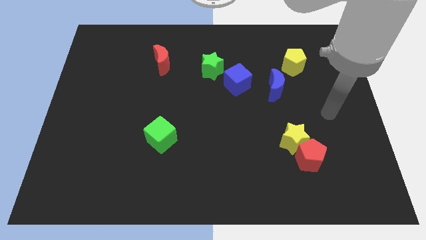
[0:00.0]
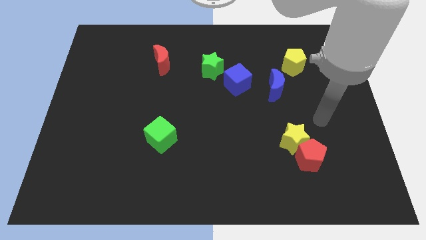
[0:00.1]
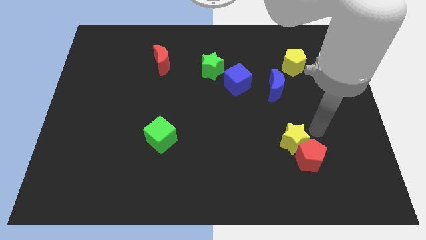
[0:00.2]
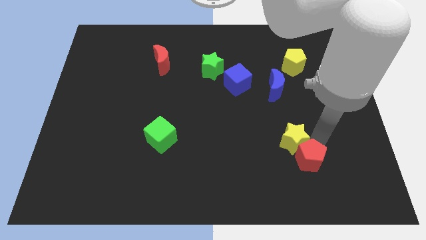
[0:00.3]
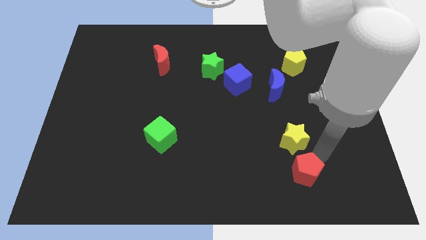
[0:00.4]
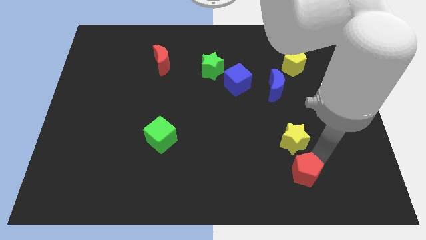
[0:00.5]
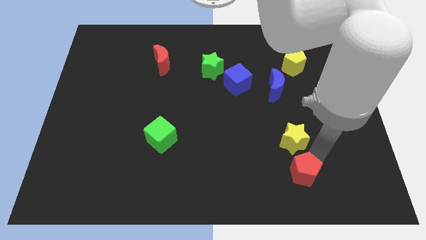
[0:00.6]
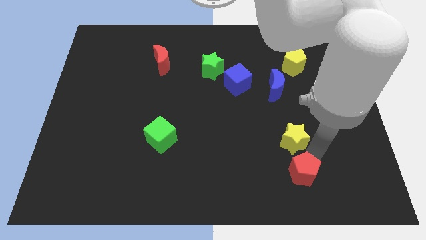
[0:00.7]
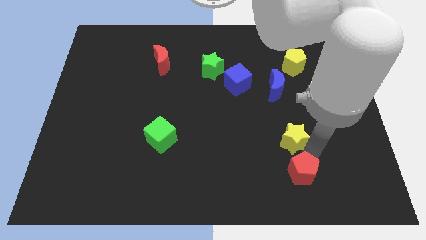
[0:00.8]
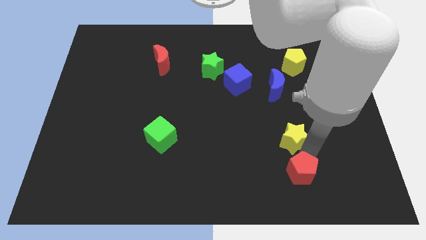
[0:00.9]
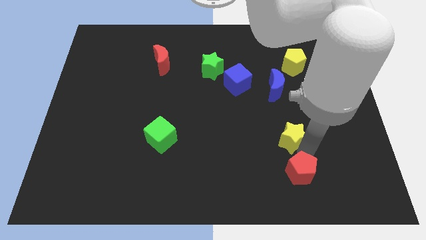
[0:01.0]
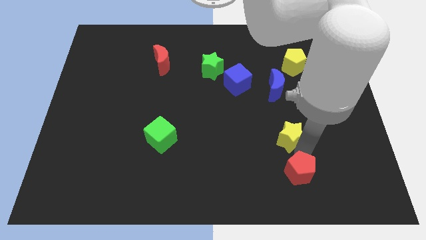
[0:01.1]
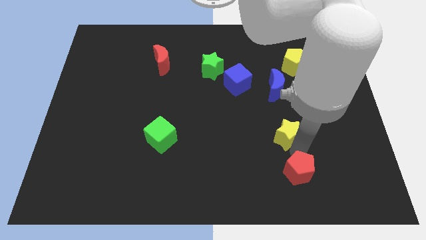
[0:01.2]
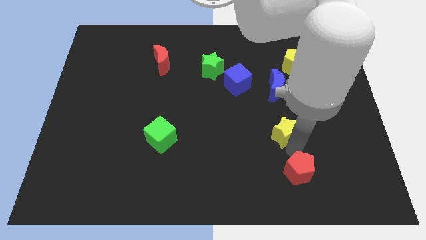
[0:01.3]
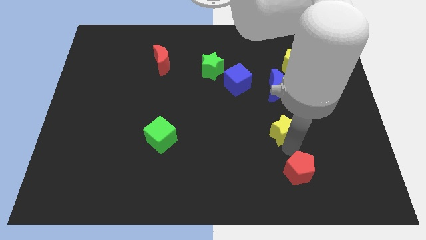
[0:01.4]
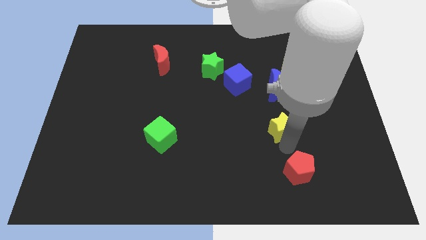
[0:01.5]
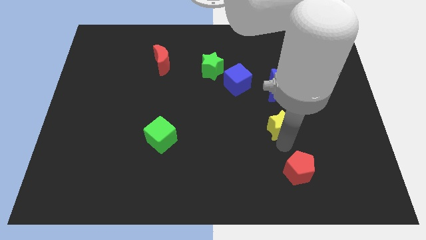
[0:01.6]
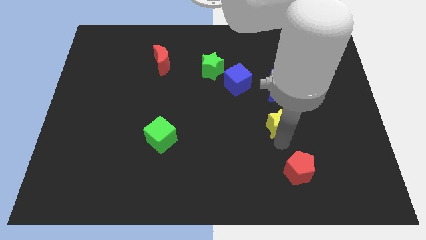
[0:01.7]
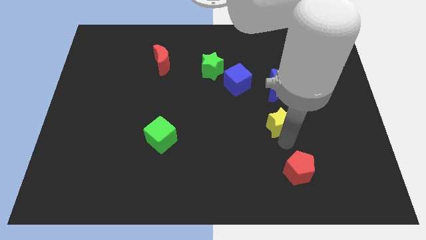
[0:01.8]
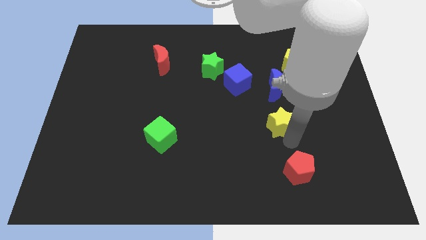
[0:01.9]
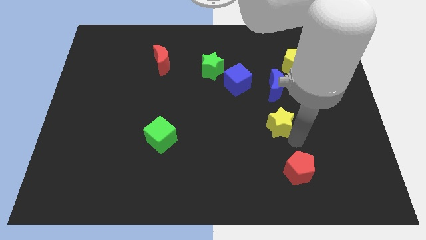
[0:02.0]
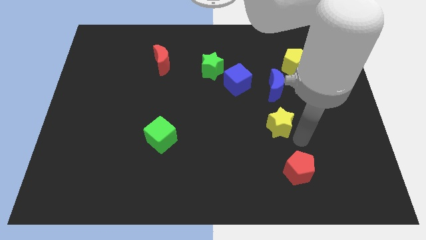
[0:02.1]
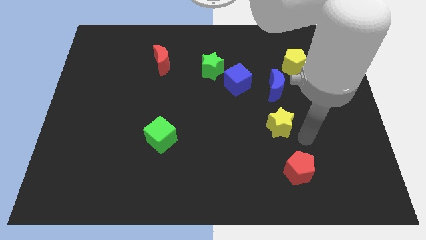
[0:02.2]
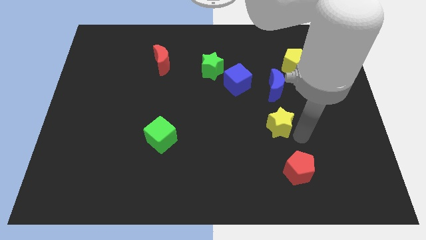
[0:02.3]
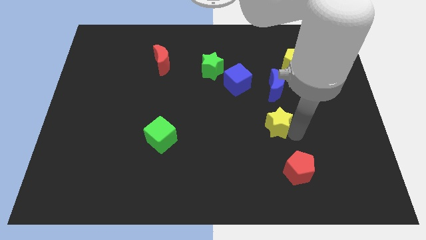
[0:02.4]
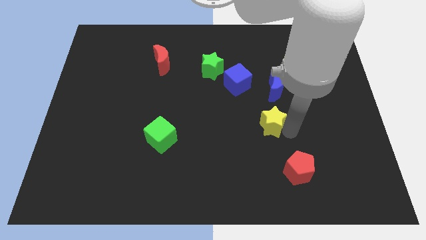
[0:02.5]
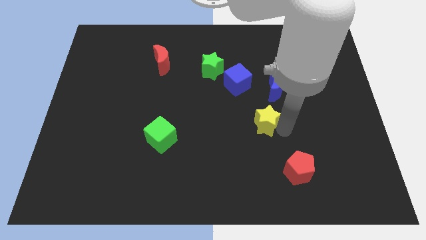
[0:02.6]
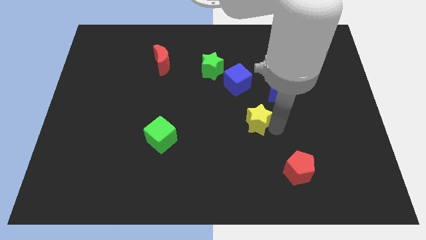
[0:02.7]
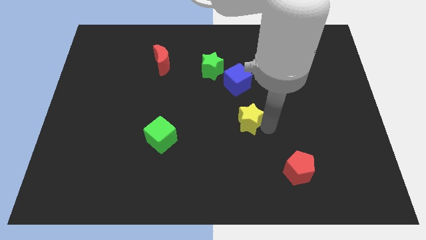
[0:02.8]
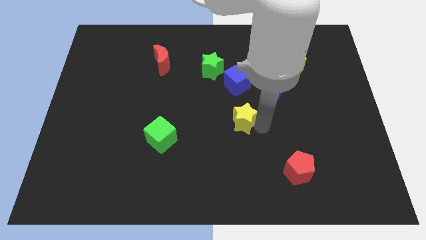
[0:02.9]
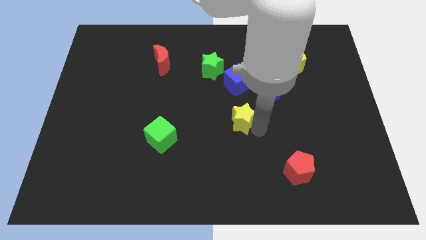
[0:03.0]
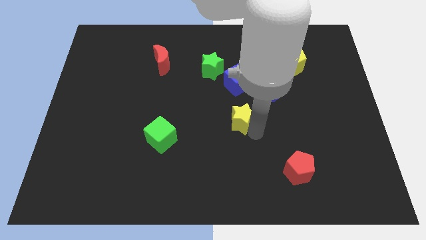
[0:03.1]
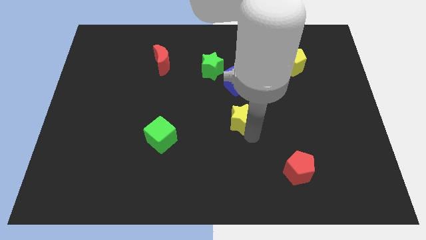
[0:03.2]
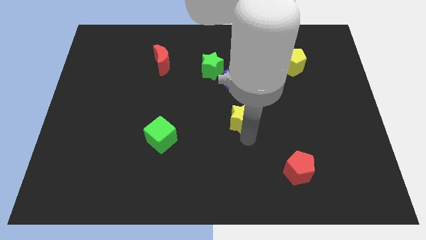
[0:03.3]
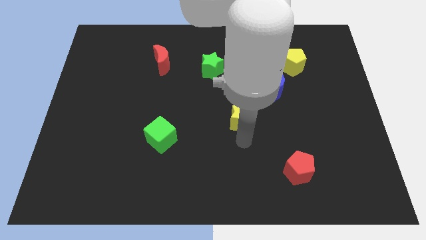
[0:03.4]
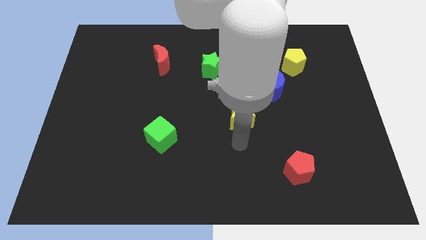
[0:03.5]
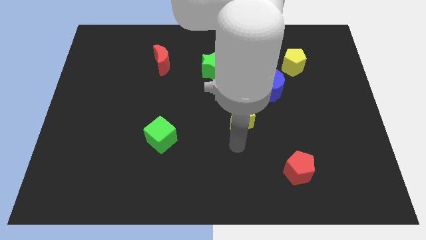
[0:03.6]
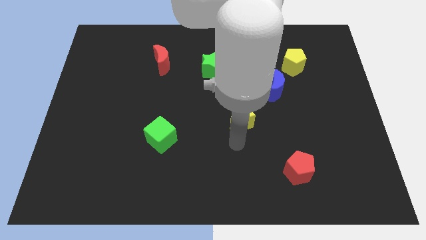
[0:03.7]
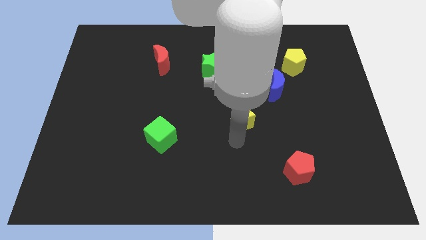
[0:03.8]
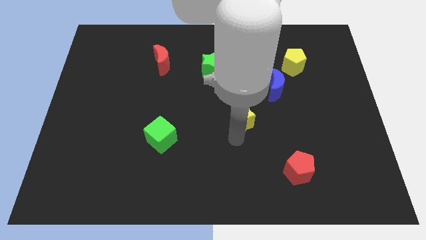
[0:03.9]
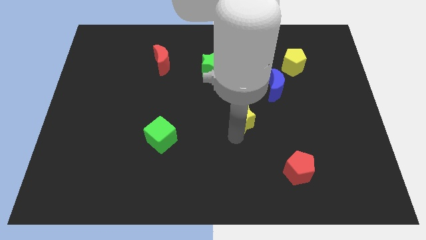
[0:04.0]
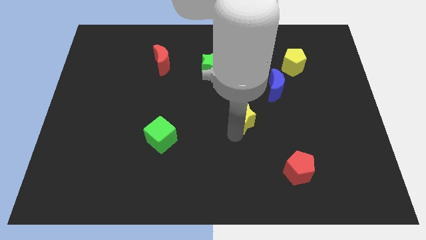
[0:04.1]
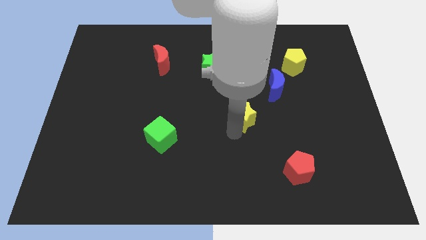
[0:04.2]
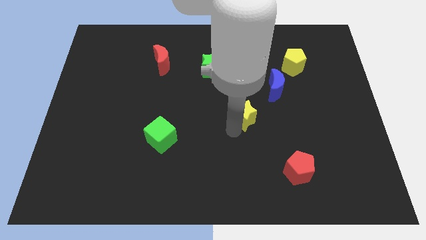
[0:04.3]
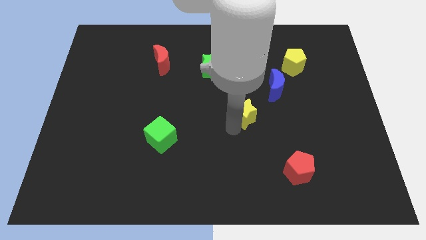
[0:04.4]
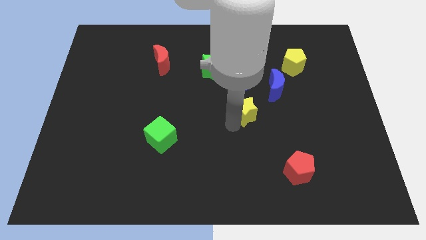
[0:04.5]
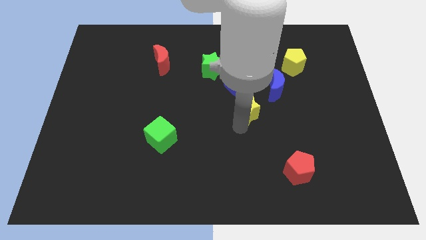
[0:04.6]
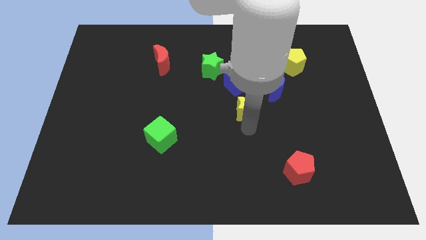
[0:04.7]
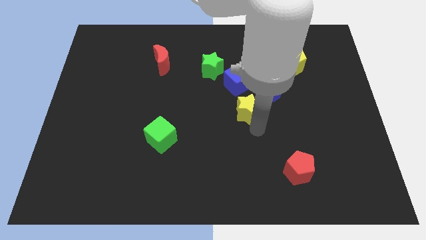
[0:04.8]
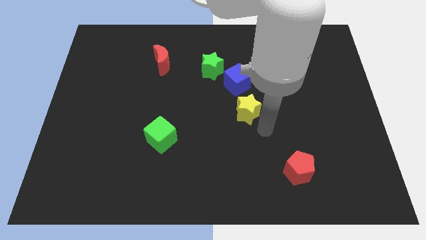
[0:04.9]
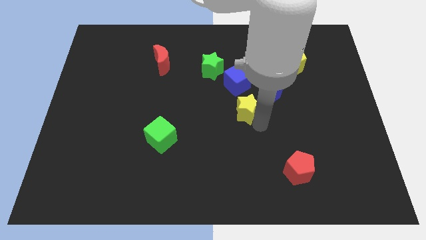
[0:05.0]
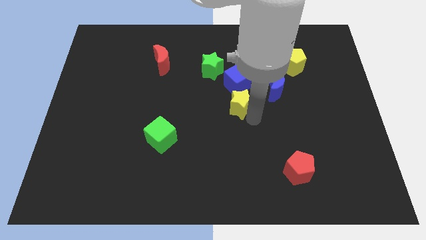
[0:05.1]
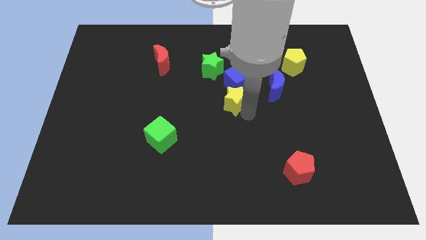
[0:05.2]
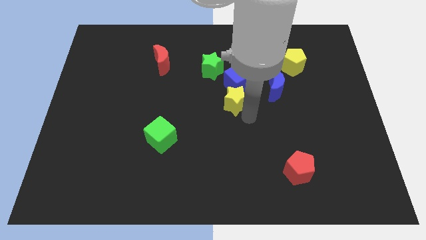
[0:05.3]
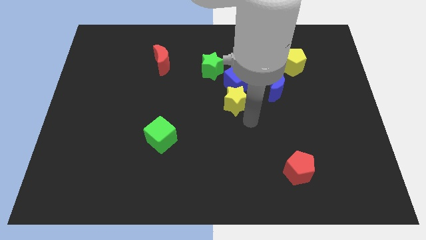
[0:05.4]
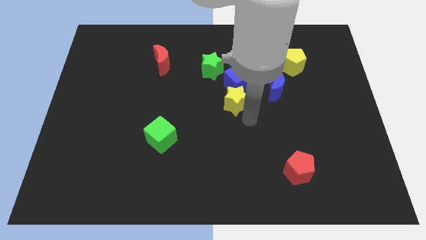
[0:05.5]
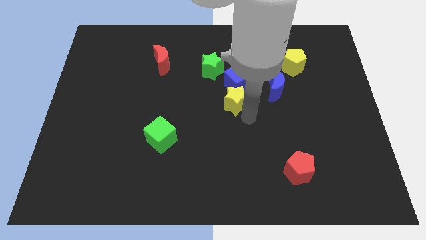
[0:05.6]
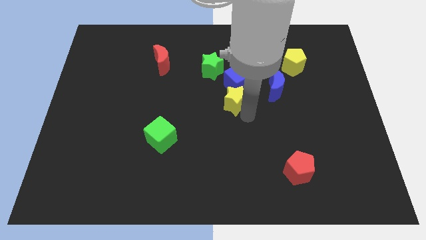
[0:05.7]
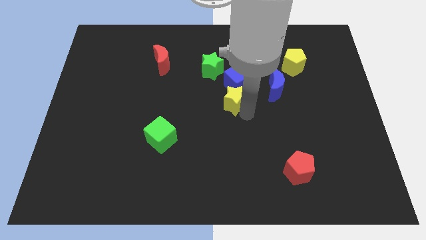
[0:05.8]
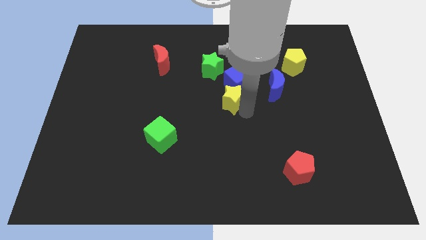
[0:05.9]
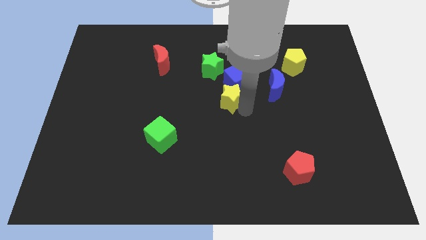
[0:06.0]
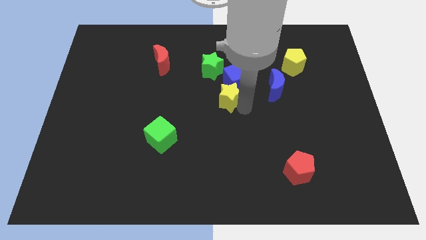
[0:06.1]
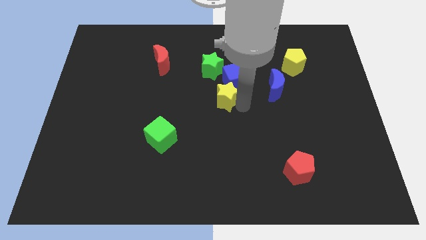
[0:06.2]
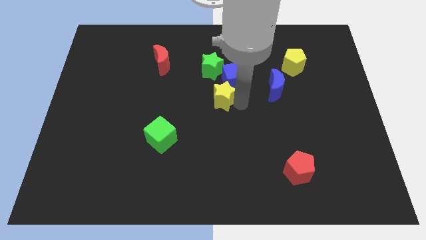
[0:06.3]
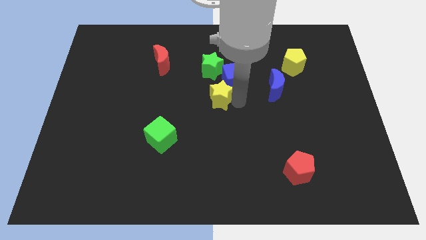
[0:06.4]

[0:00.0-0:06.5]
move the yellow star upwards and to the left

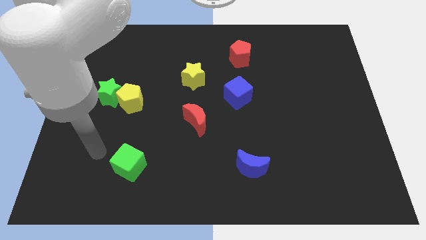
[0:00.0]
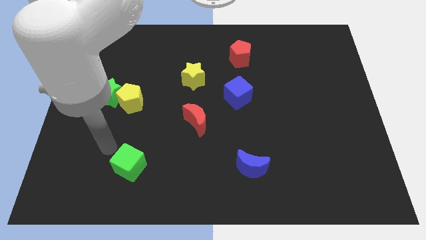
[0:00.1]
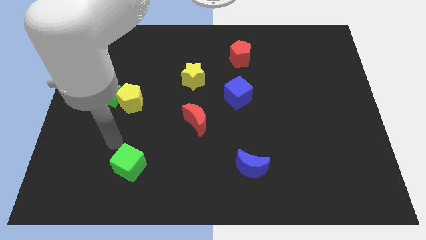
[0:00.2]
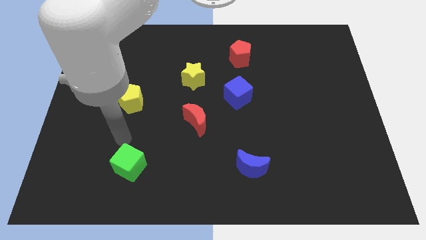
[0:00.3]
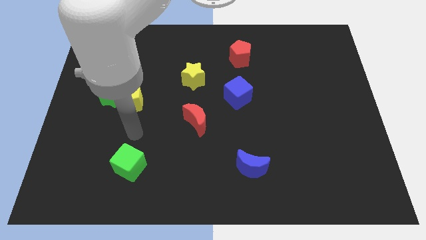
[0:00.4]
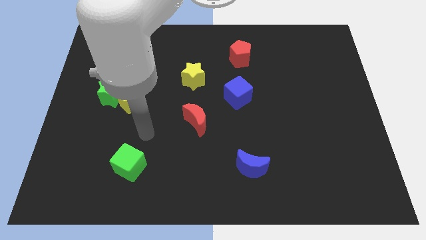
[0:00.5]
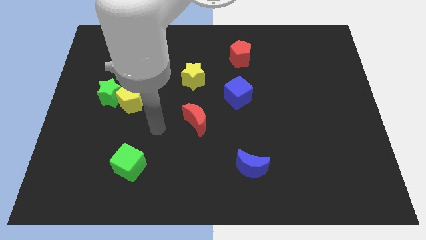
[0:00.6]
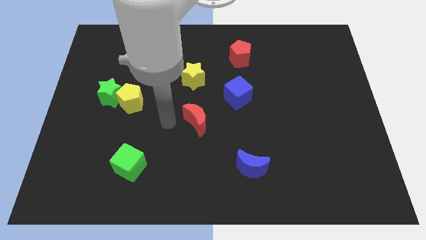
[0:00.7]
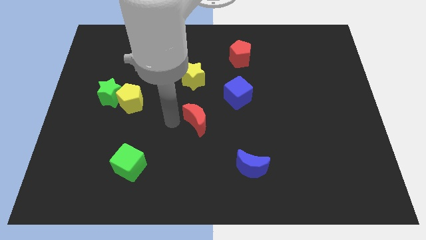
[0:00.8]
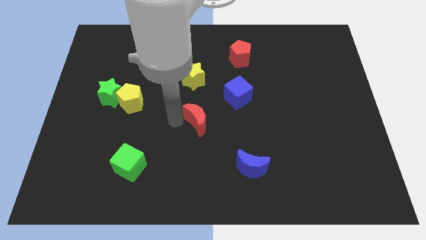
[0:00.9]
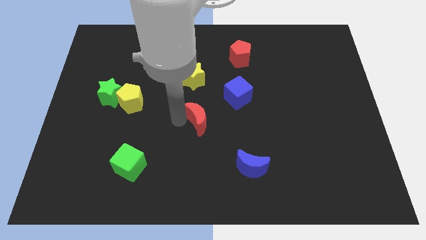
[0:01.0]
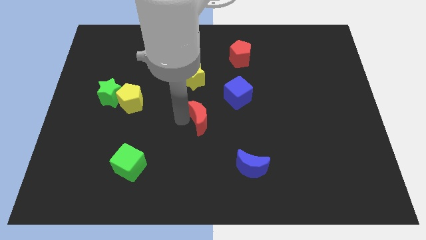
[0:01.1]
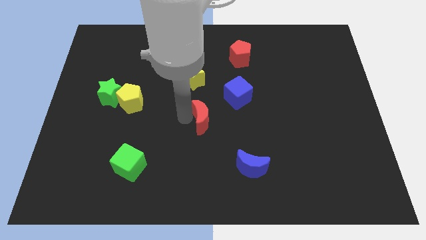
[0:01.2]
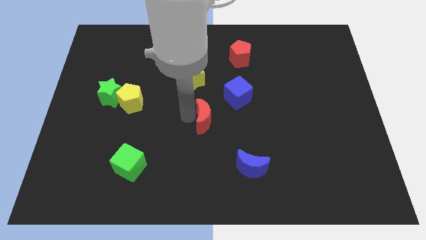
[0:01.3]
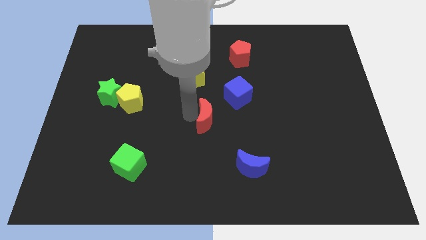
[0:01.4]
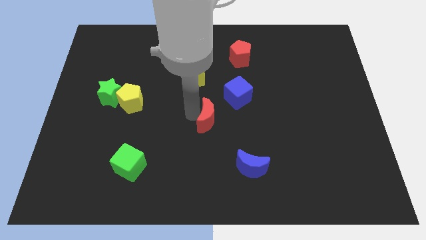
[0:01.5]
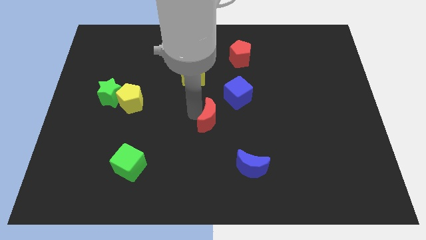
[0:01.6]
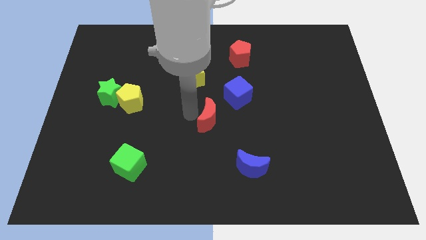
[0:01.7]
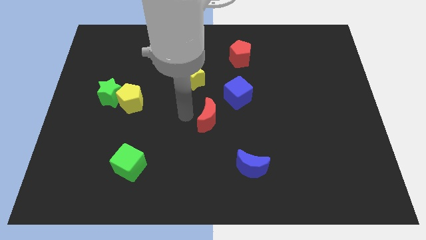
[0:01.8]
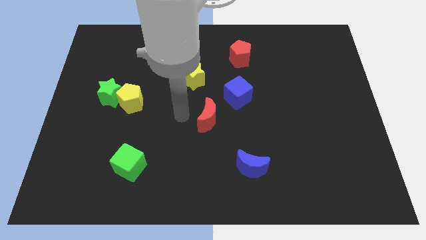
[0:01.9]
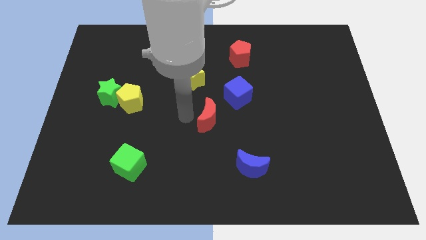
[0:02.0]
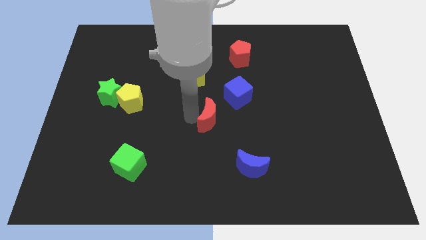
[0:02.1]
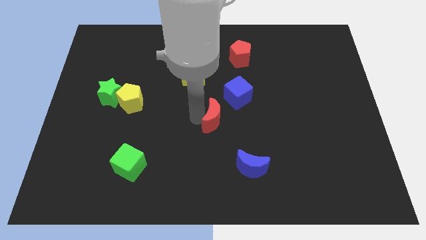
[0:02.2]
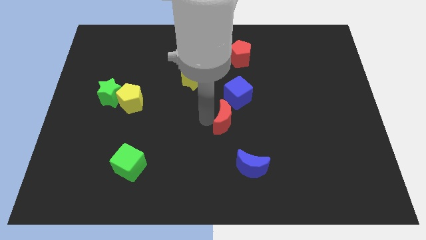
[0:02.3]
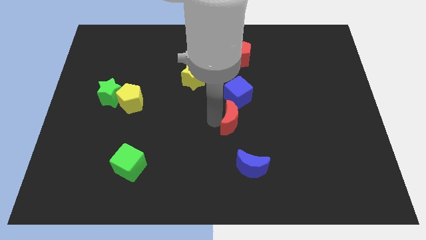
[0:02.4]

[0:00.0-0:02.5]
slide the red moon a little bit to the right
